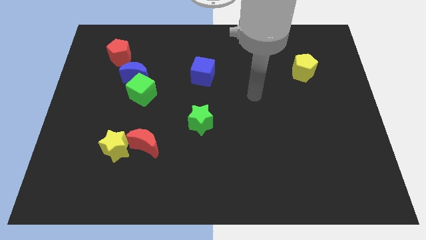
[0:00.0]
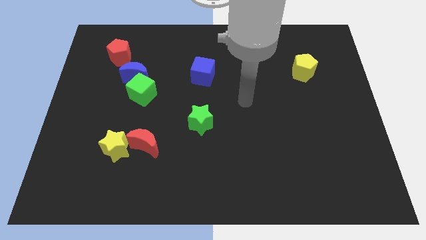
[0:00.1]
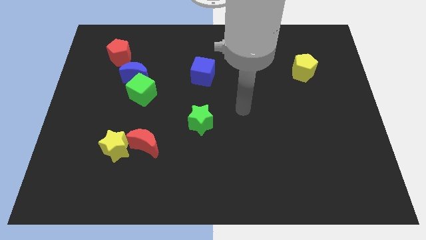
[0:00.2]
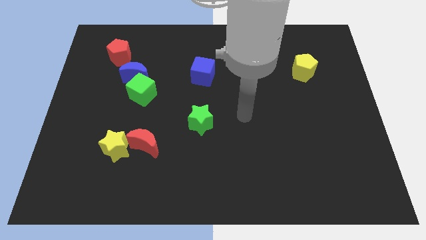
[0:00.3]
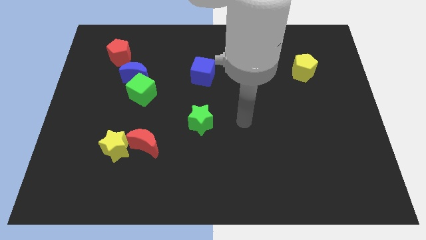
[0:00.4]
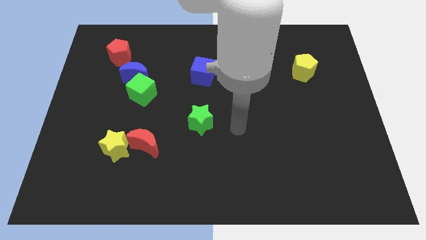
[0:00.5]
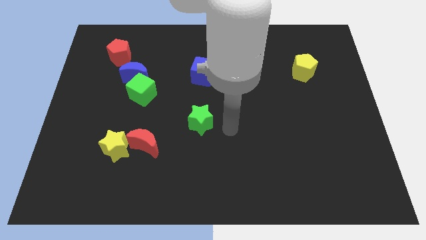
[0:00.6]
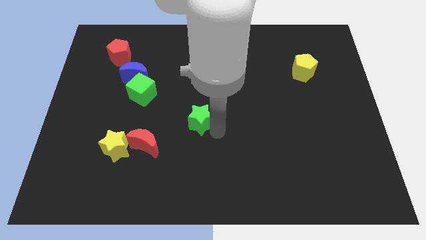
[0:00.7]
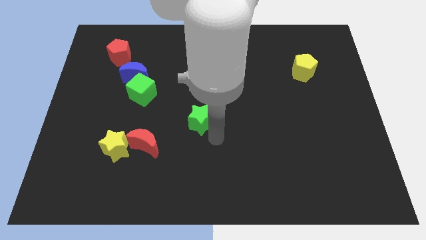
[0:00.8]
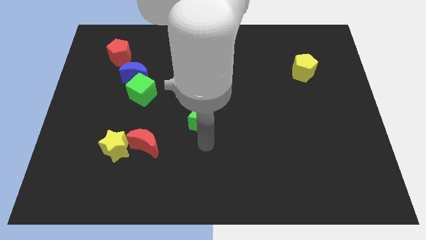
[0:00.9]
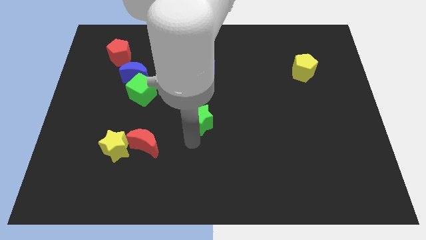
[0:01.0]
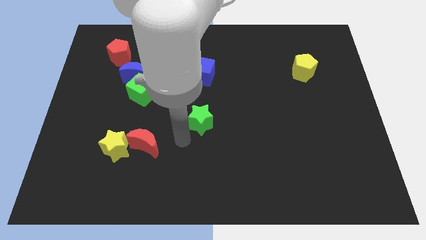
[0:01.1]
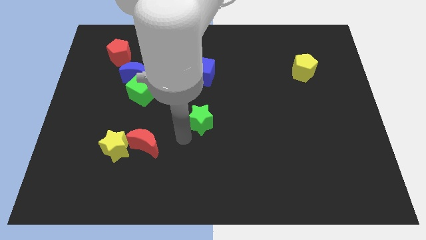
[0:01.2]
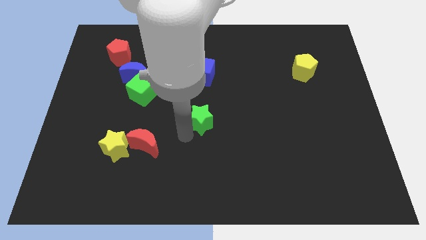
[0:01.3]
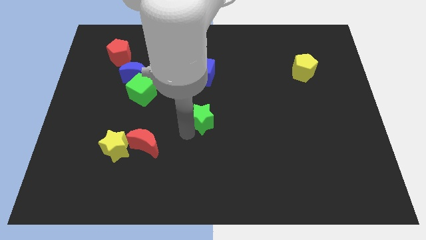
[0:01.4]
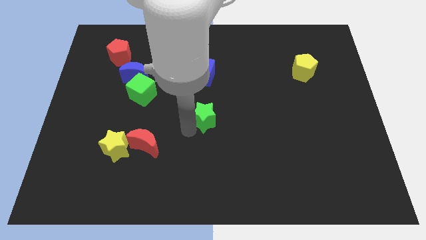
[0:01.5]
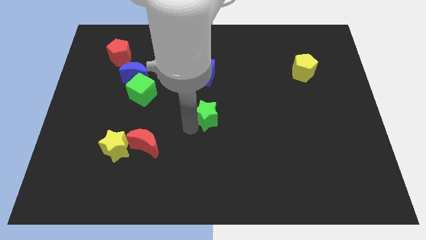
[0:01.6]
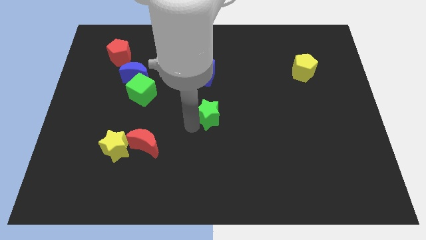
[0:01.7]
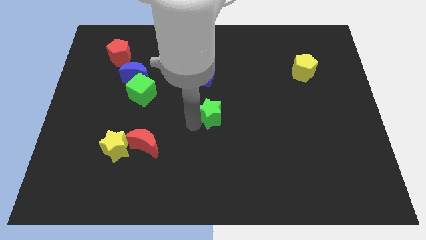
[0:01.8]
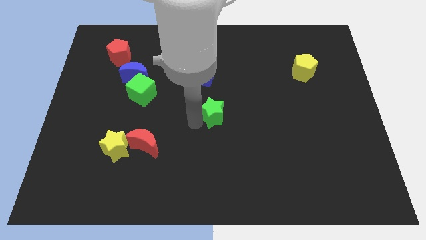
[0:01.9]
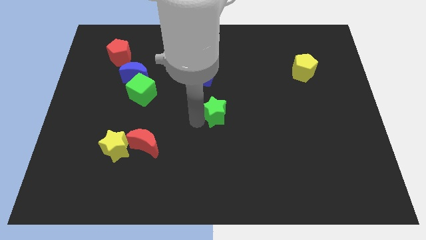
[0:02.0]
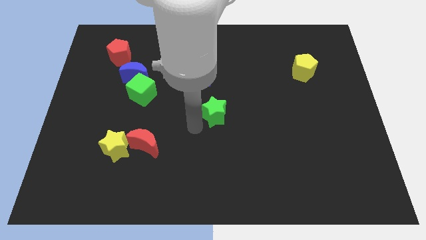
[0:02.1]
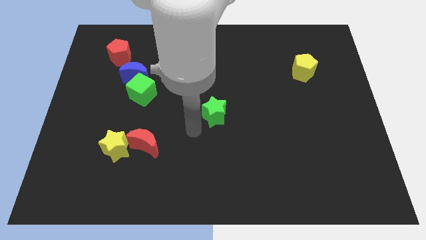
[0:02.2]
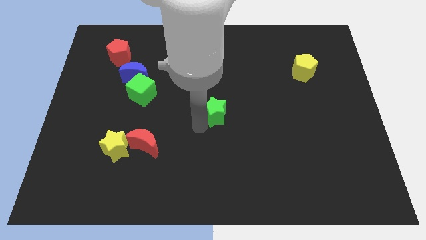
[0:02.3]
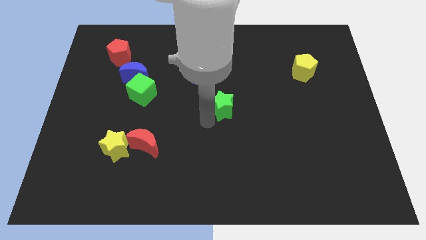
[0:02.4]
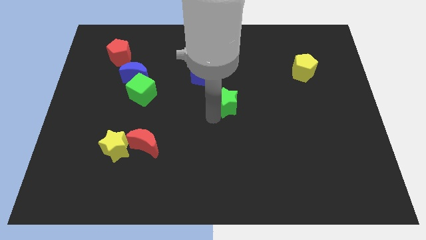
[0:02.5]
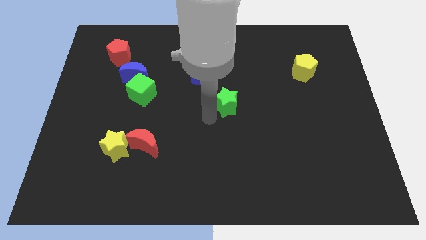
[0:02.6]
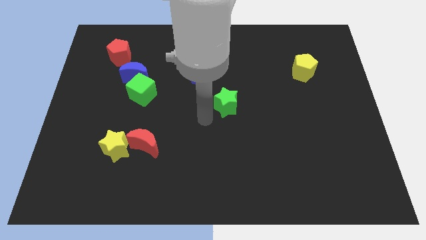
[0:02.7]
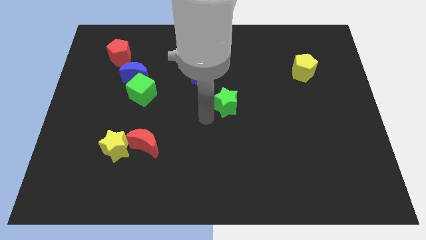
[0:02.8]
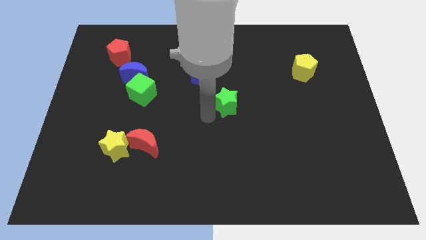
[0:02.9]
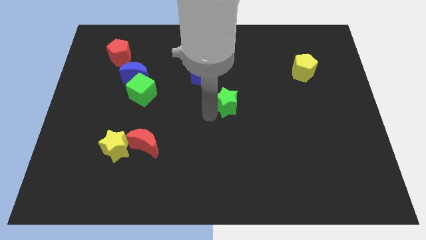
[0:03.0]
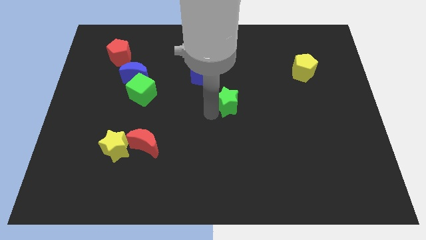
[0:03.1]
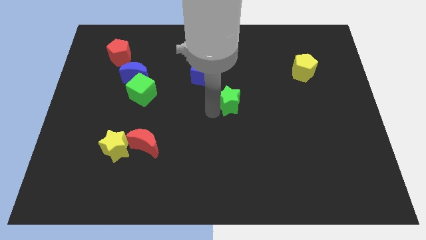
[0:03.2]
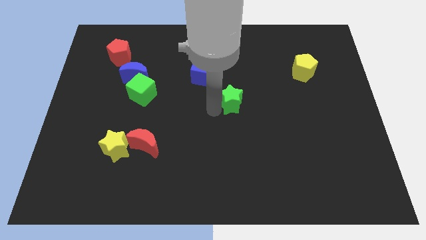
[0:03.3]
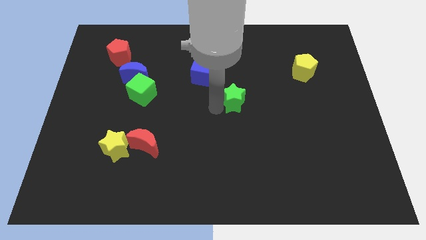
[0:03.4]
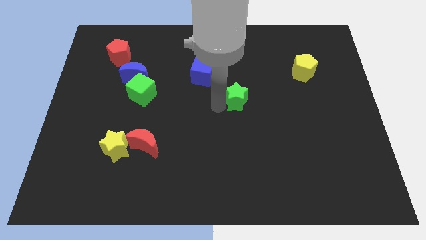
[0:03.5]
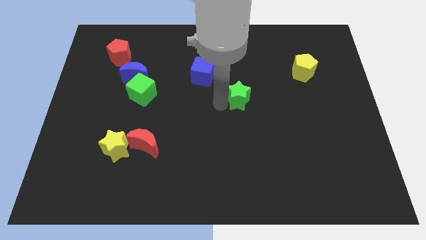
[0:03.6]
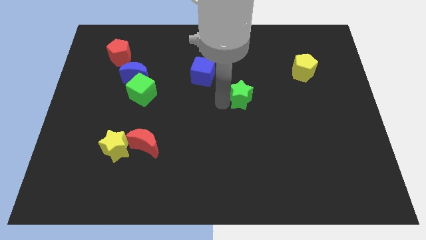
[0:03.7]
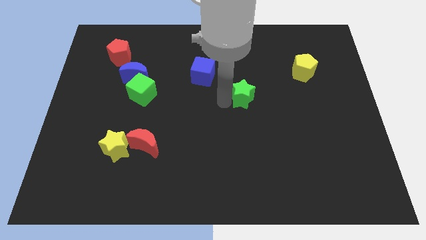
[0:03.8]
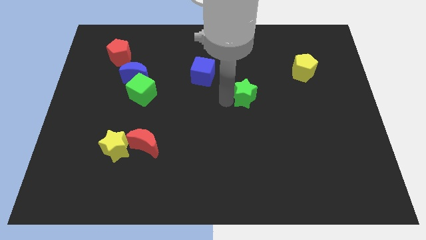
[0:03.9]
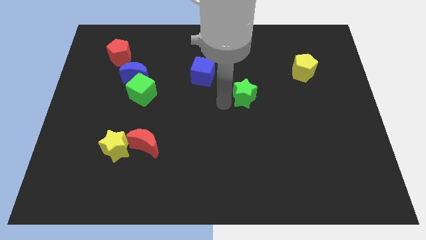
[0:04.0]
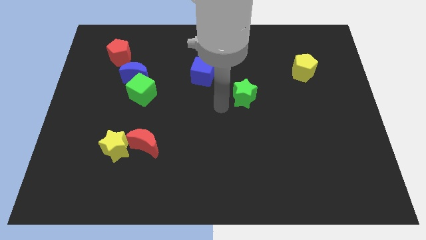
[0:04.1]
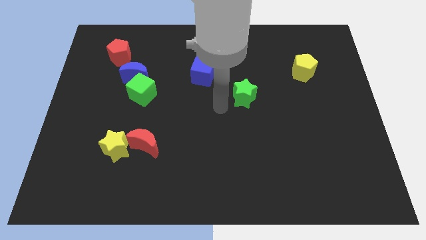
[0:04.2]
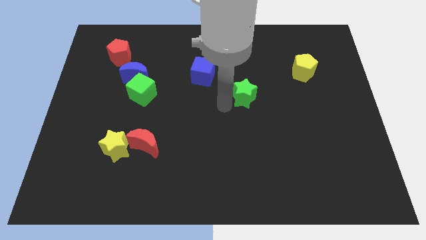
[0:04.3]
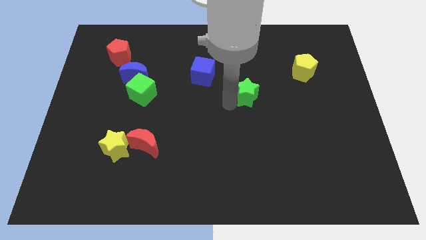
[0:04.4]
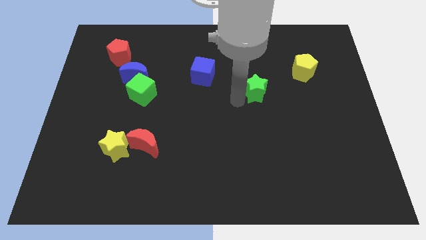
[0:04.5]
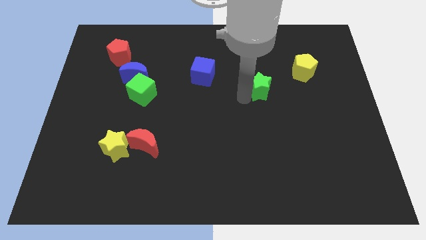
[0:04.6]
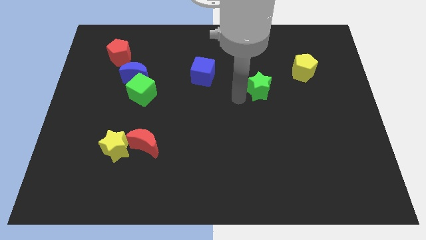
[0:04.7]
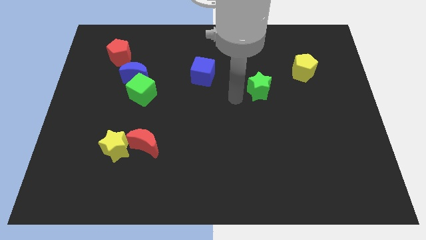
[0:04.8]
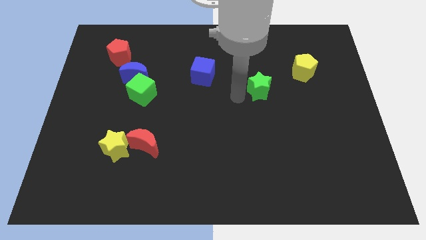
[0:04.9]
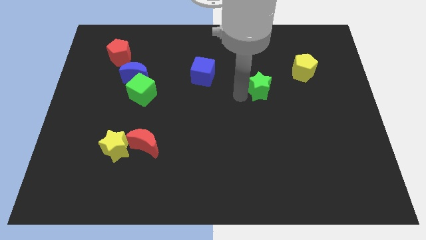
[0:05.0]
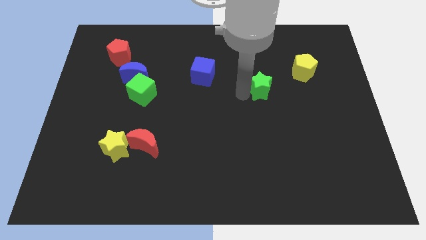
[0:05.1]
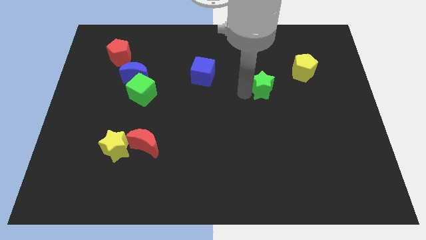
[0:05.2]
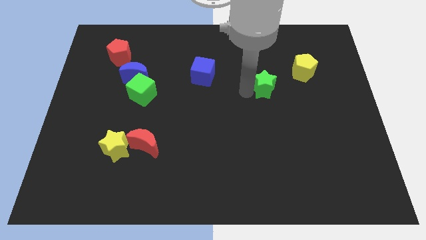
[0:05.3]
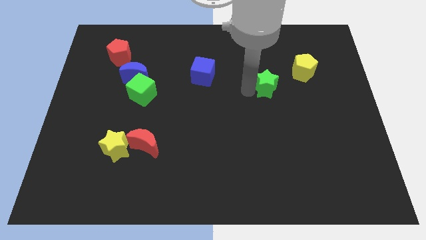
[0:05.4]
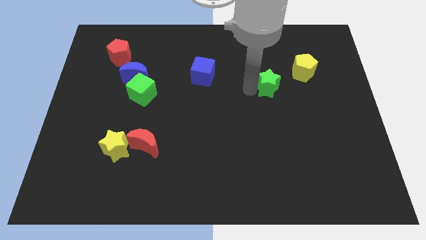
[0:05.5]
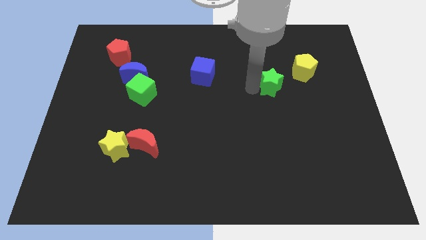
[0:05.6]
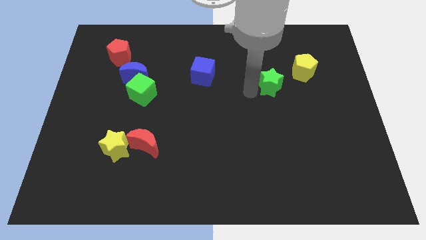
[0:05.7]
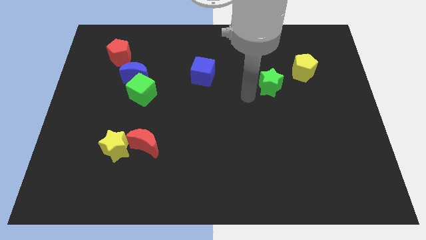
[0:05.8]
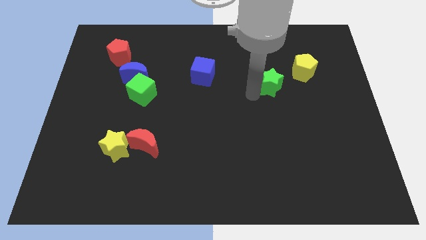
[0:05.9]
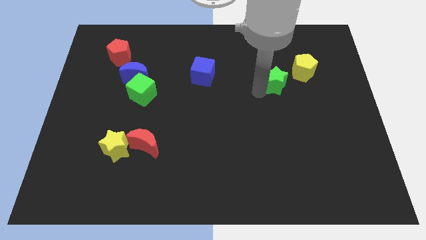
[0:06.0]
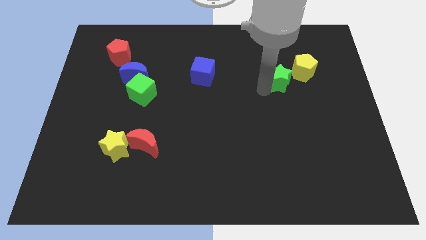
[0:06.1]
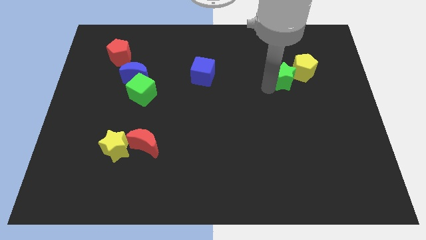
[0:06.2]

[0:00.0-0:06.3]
put the green star towards the yellow pentagon

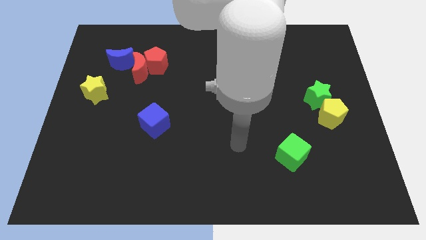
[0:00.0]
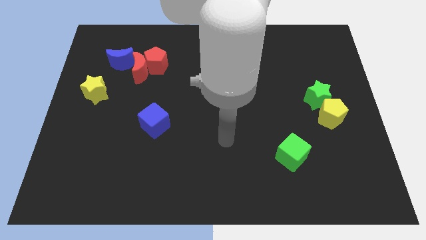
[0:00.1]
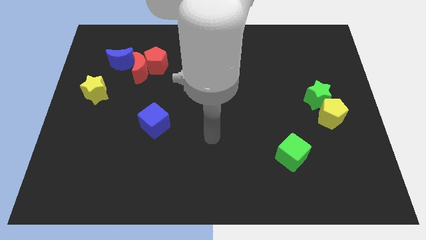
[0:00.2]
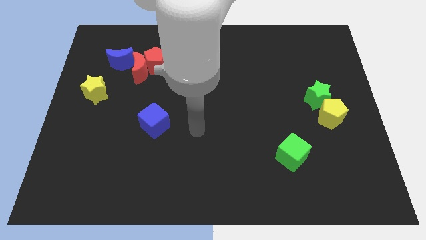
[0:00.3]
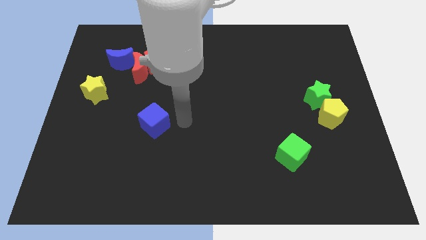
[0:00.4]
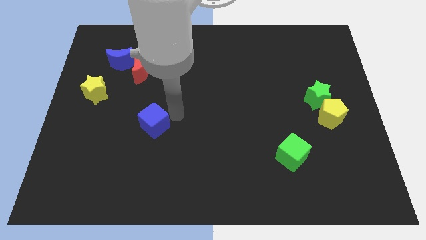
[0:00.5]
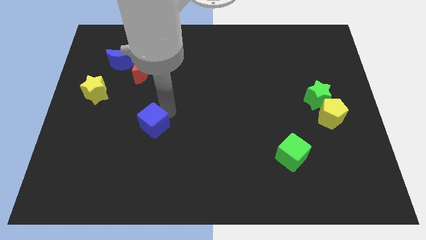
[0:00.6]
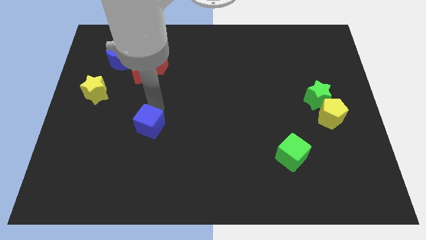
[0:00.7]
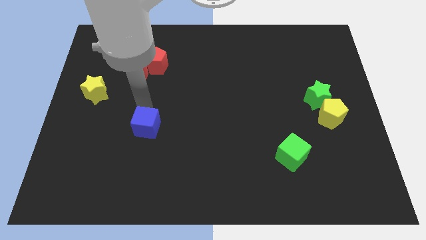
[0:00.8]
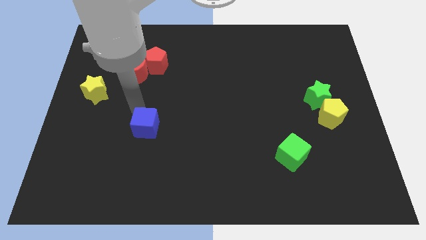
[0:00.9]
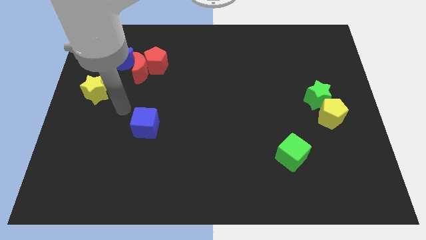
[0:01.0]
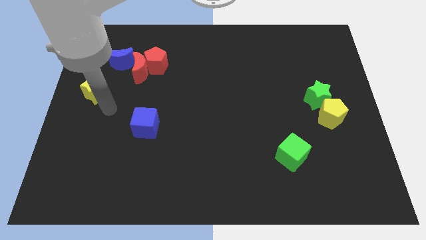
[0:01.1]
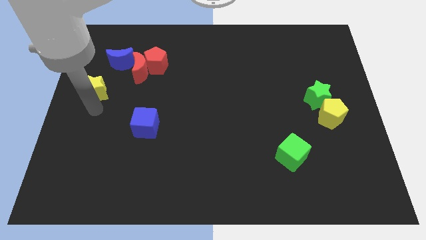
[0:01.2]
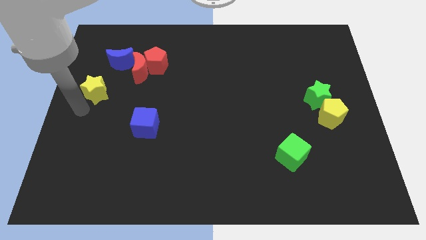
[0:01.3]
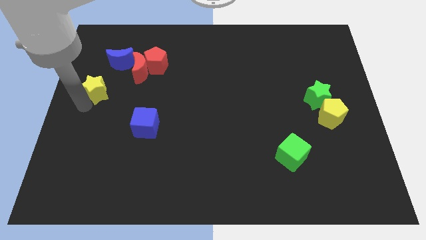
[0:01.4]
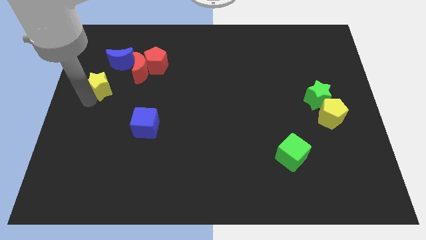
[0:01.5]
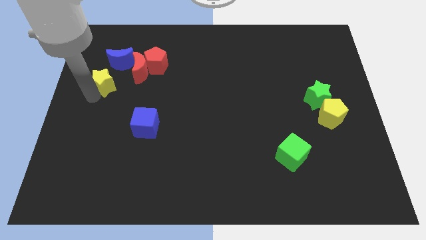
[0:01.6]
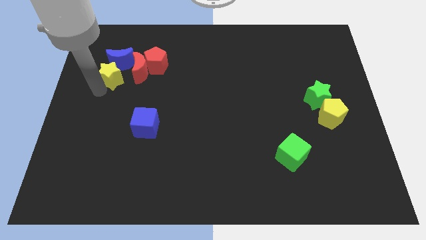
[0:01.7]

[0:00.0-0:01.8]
push the yellow star to the blue moon
